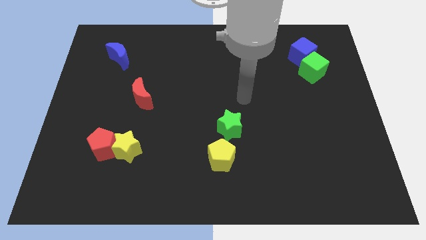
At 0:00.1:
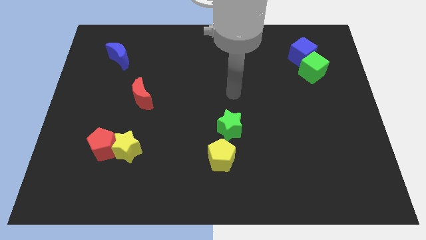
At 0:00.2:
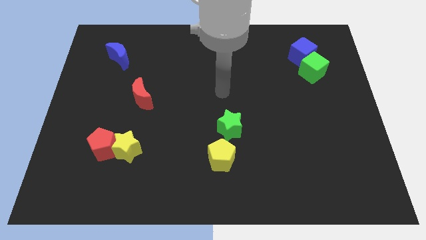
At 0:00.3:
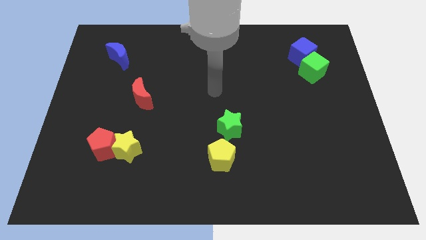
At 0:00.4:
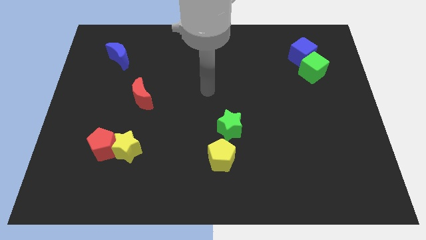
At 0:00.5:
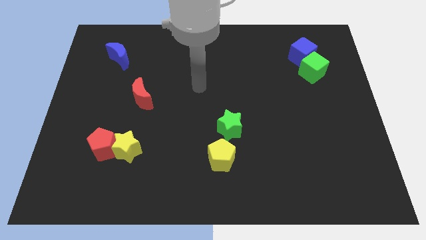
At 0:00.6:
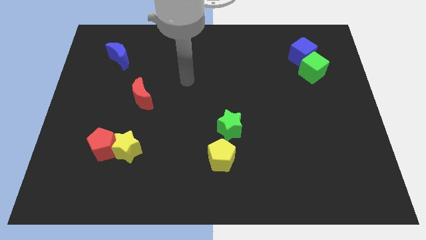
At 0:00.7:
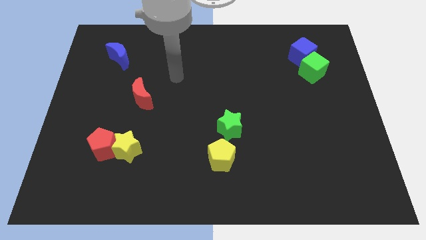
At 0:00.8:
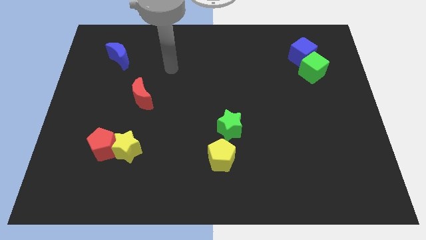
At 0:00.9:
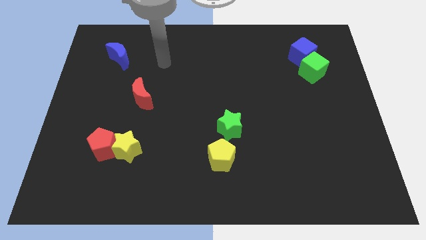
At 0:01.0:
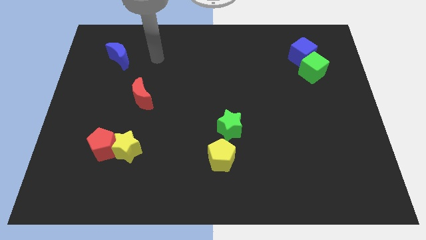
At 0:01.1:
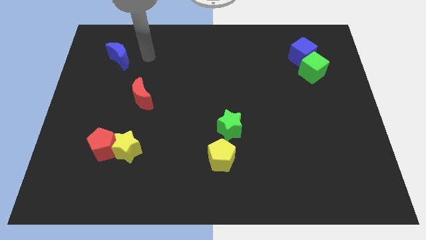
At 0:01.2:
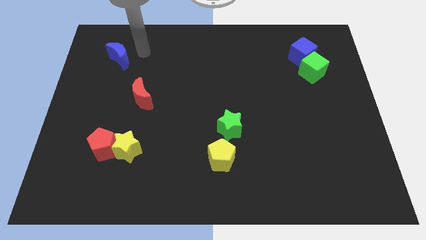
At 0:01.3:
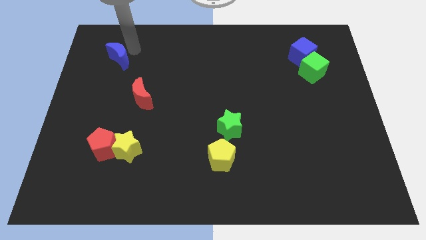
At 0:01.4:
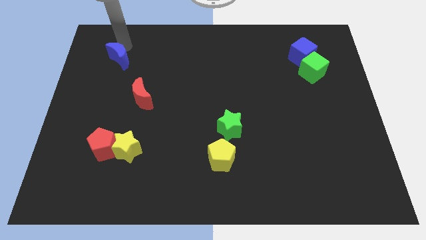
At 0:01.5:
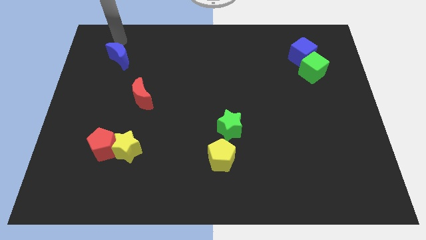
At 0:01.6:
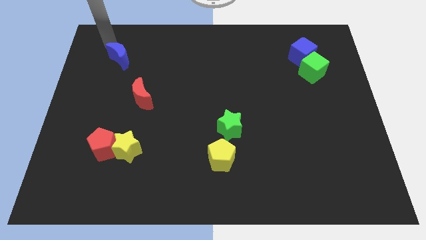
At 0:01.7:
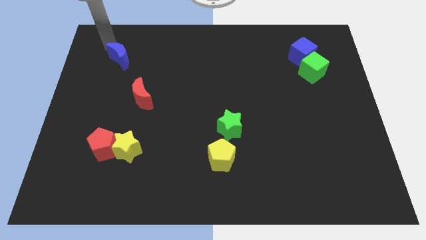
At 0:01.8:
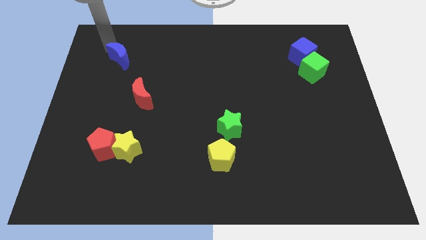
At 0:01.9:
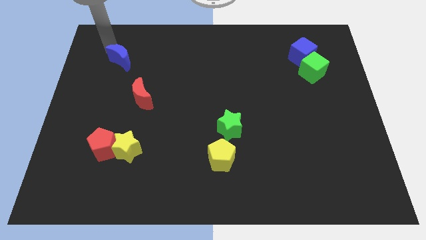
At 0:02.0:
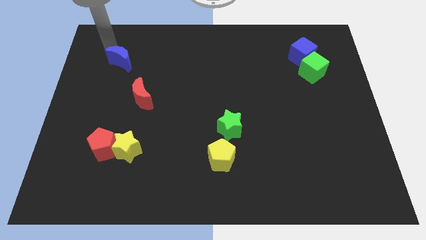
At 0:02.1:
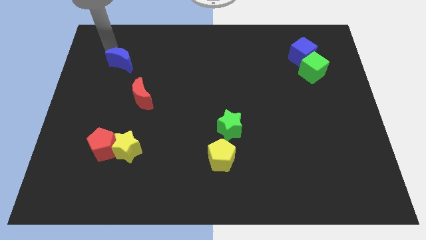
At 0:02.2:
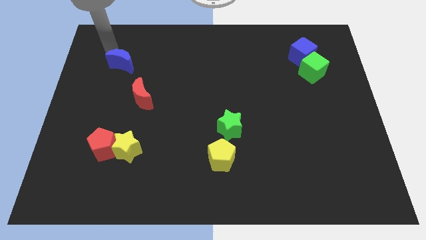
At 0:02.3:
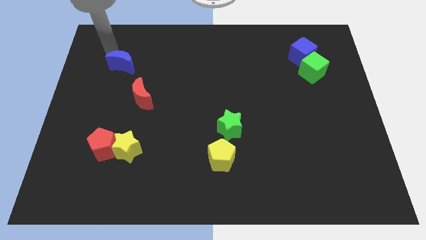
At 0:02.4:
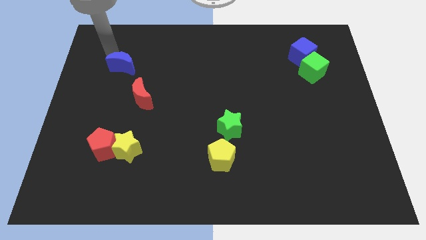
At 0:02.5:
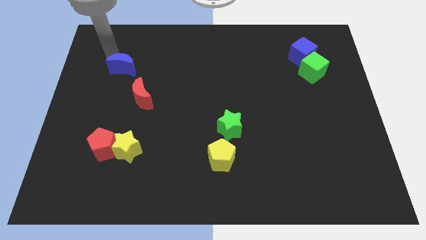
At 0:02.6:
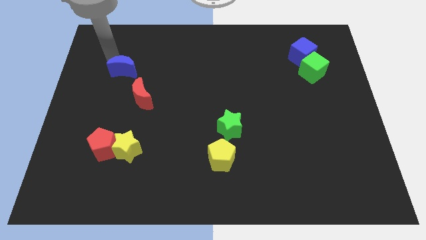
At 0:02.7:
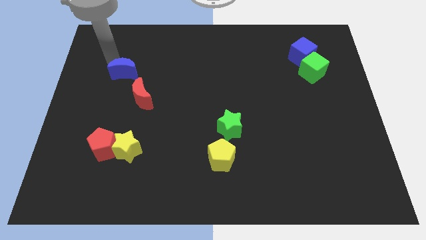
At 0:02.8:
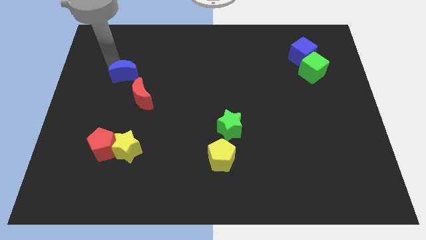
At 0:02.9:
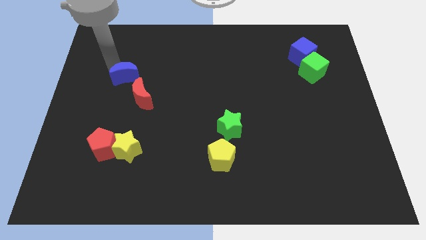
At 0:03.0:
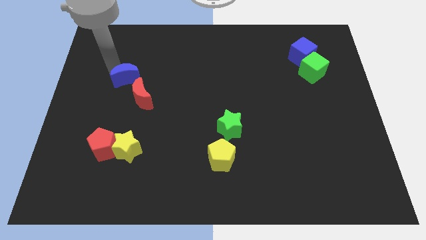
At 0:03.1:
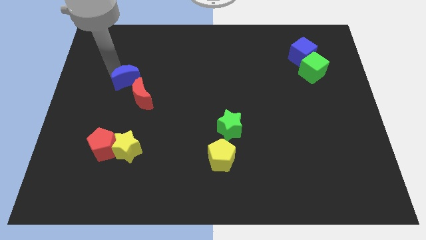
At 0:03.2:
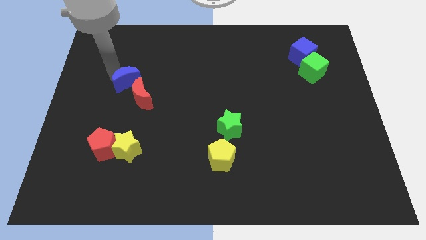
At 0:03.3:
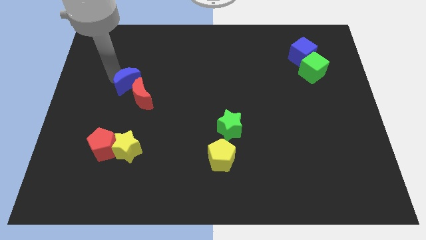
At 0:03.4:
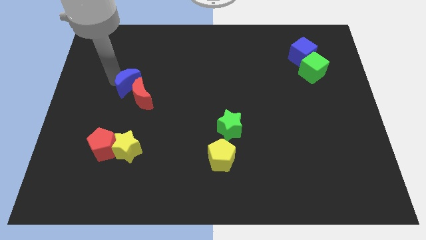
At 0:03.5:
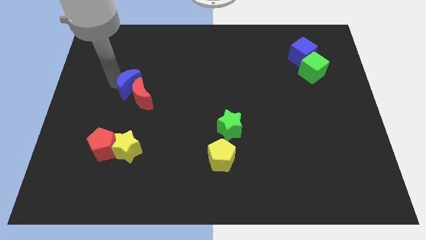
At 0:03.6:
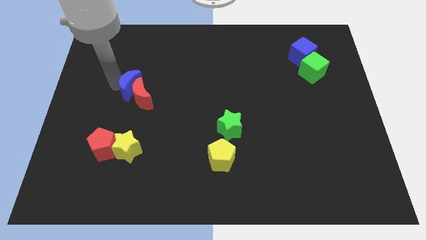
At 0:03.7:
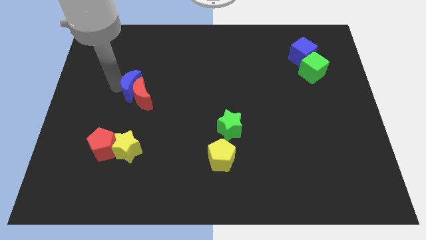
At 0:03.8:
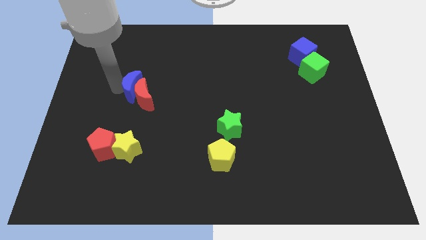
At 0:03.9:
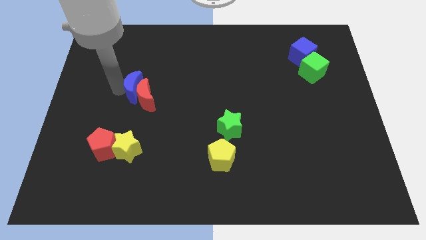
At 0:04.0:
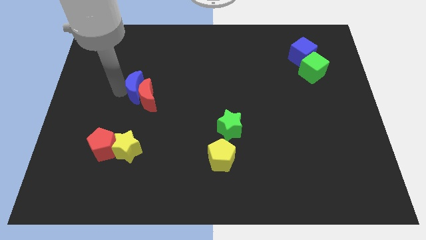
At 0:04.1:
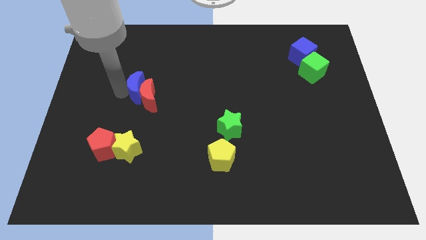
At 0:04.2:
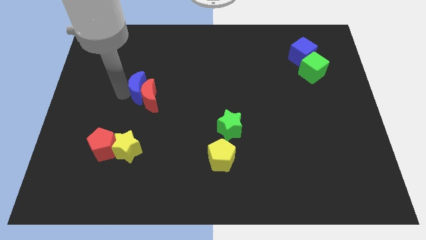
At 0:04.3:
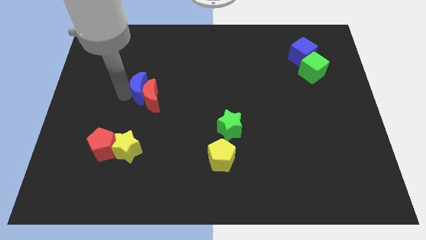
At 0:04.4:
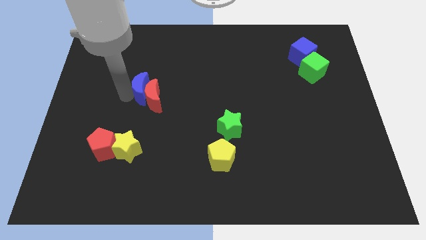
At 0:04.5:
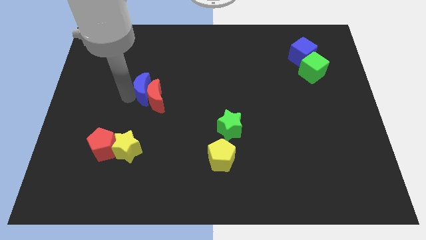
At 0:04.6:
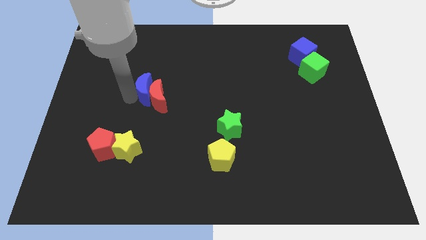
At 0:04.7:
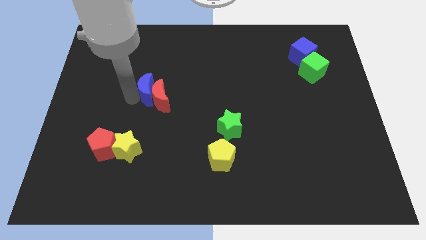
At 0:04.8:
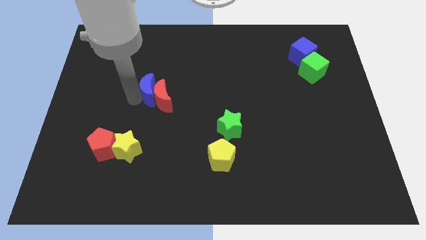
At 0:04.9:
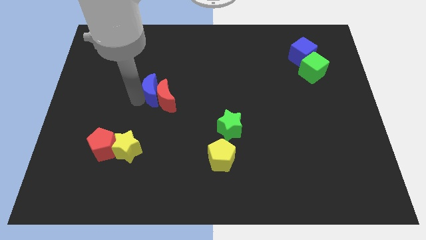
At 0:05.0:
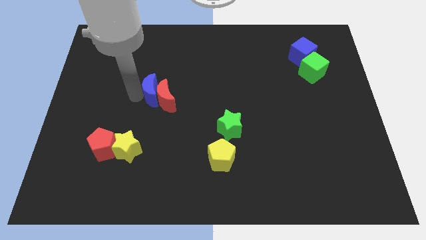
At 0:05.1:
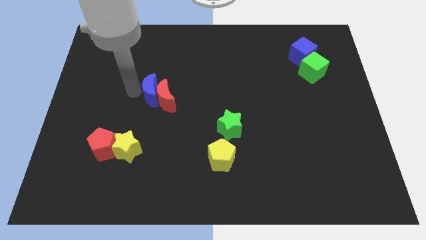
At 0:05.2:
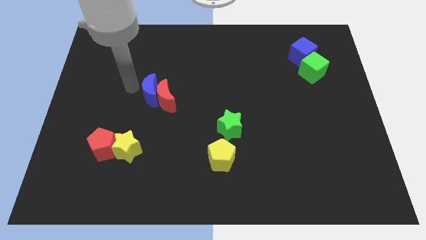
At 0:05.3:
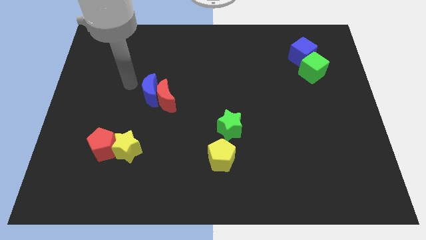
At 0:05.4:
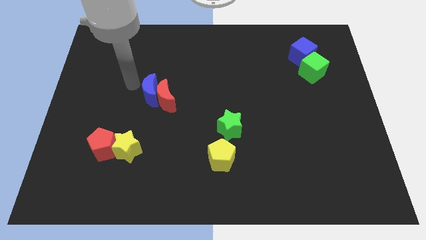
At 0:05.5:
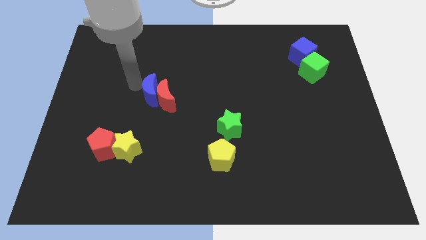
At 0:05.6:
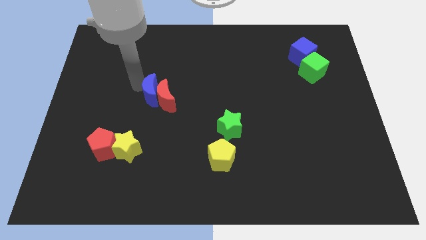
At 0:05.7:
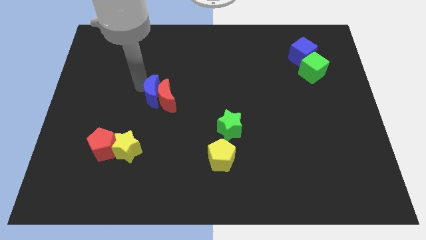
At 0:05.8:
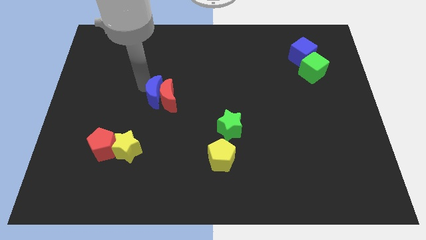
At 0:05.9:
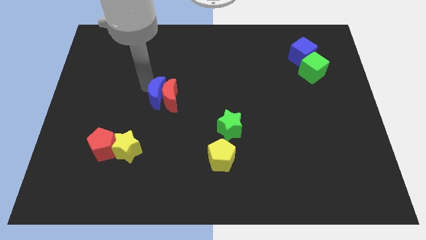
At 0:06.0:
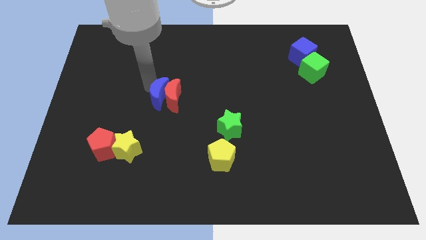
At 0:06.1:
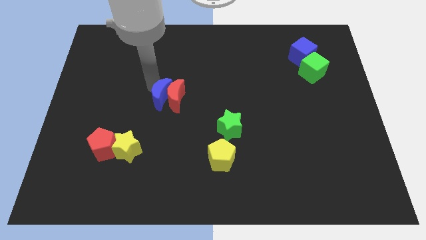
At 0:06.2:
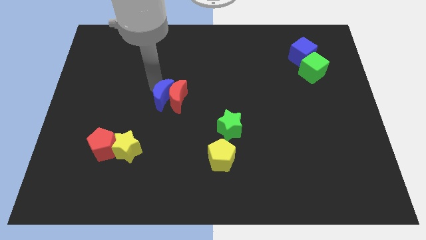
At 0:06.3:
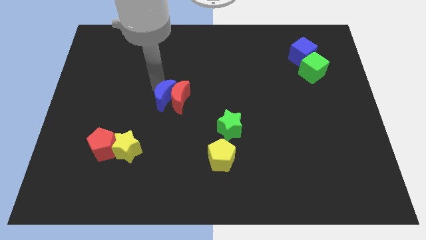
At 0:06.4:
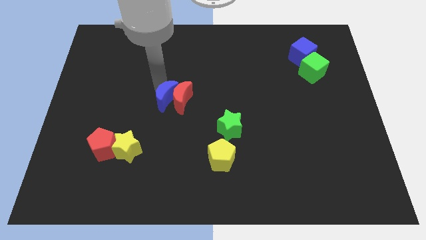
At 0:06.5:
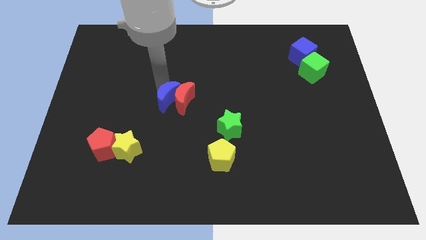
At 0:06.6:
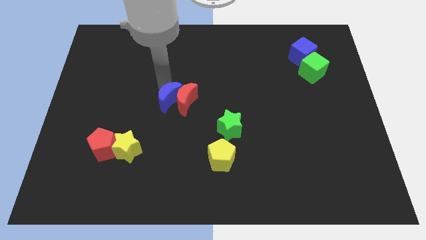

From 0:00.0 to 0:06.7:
slide the blue moon down and then to the right

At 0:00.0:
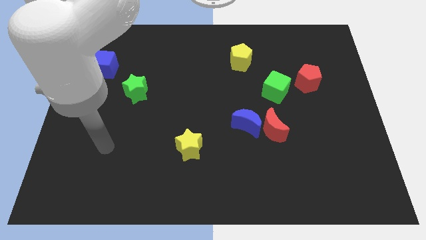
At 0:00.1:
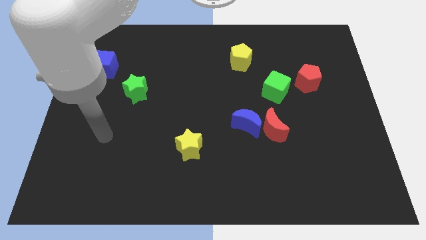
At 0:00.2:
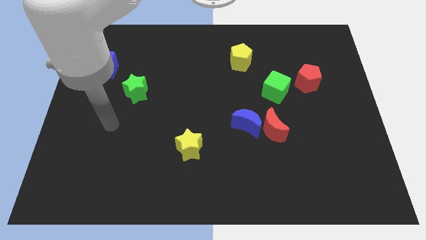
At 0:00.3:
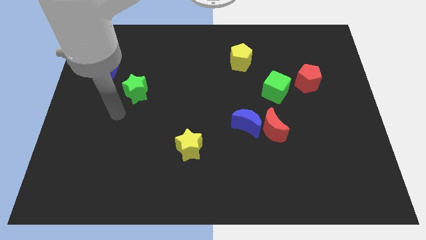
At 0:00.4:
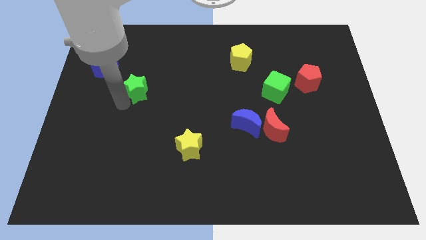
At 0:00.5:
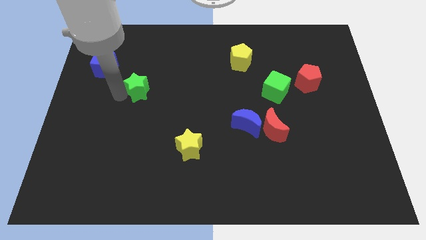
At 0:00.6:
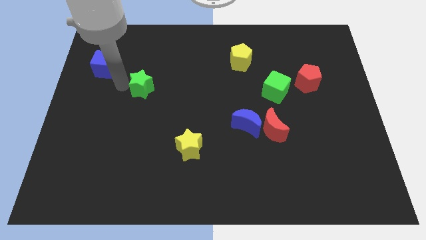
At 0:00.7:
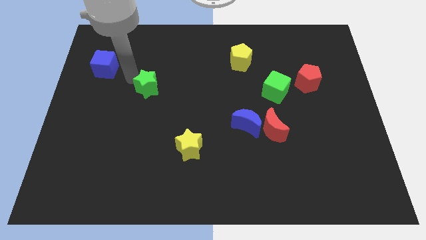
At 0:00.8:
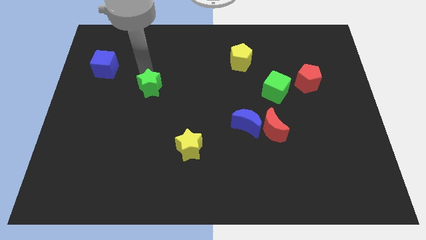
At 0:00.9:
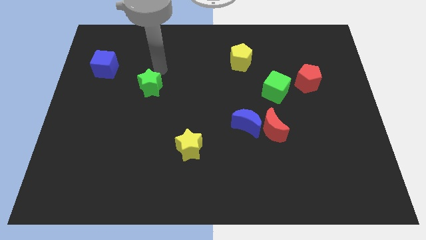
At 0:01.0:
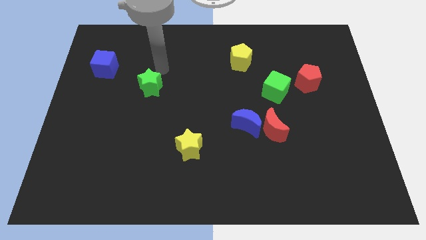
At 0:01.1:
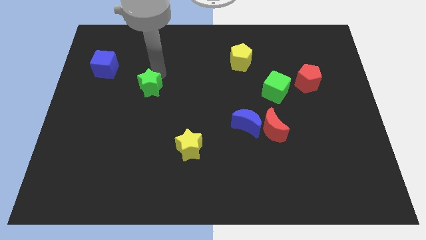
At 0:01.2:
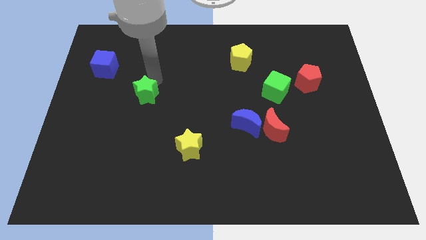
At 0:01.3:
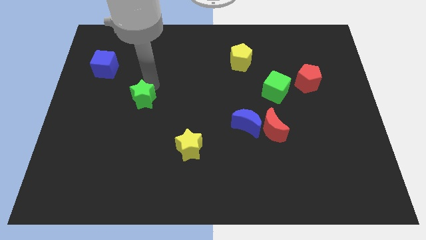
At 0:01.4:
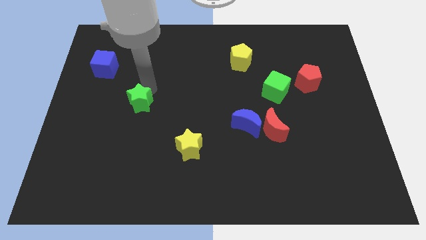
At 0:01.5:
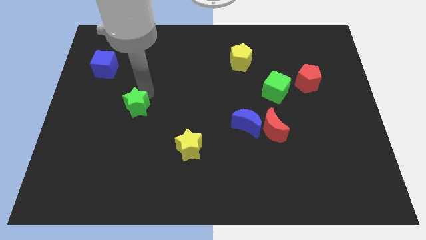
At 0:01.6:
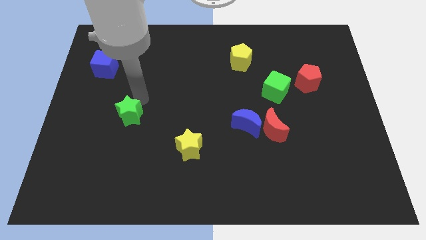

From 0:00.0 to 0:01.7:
slightly slide the green star downwards
